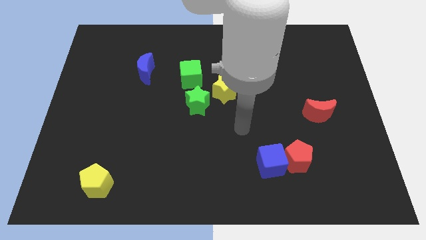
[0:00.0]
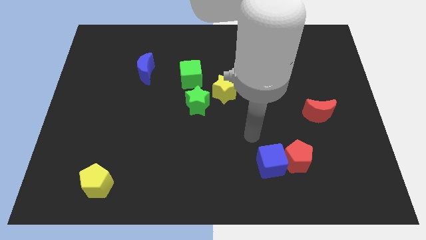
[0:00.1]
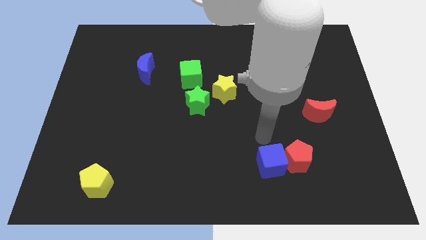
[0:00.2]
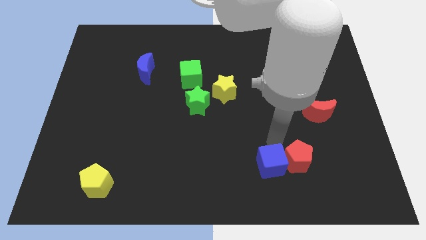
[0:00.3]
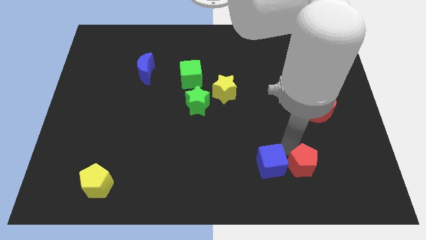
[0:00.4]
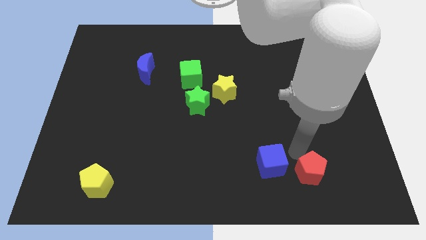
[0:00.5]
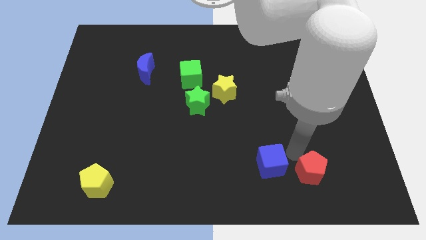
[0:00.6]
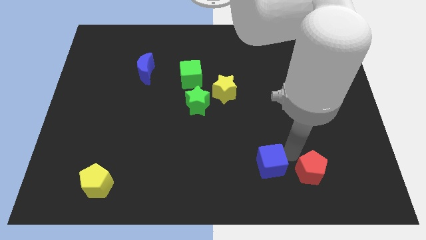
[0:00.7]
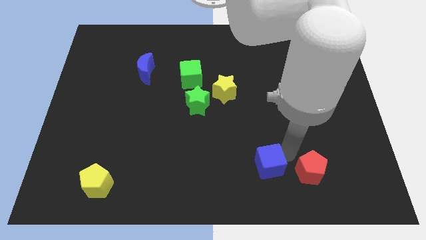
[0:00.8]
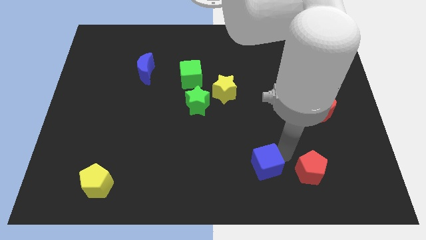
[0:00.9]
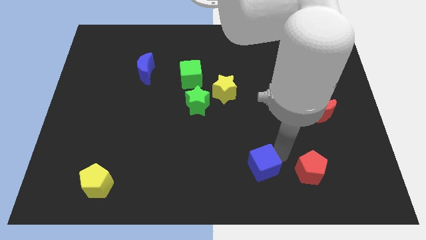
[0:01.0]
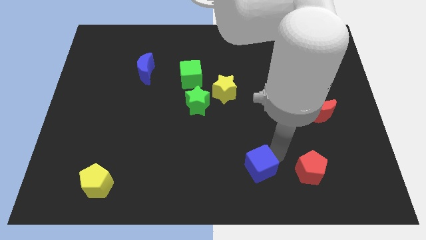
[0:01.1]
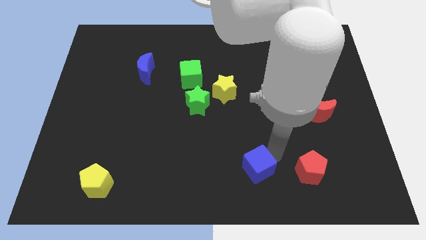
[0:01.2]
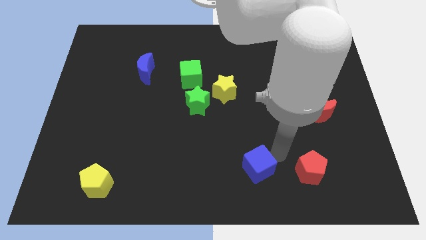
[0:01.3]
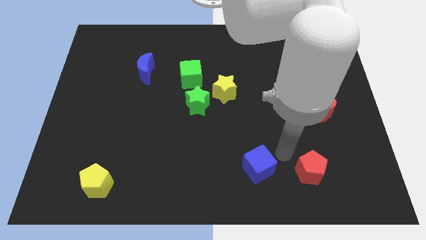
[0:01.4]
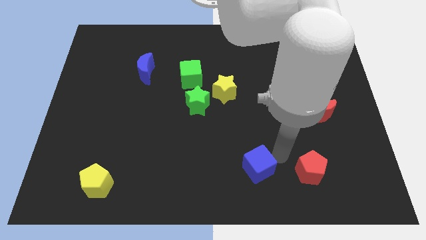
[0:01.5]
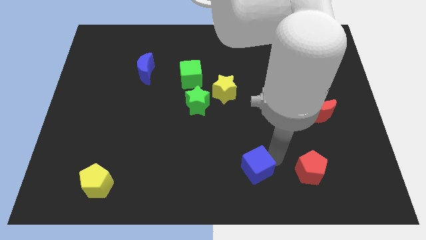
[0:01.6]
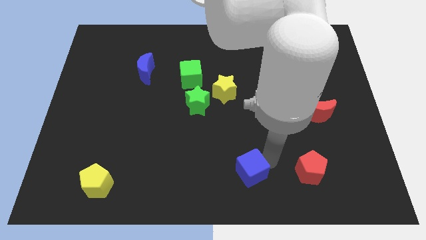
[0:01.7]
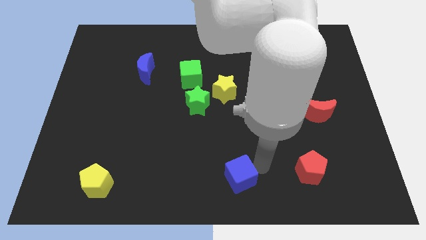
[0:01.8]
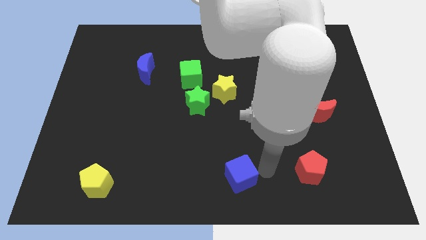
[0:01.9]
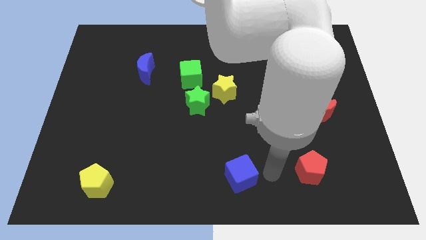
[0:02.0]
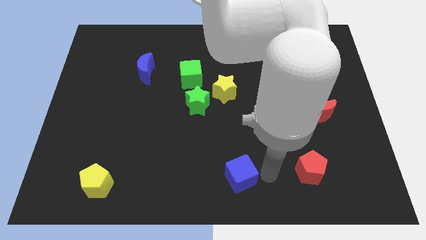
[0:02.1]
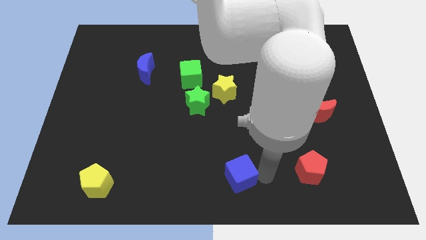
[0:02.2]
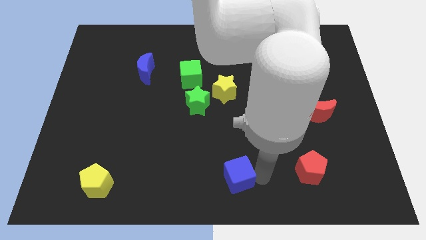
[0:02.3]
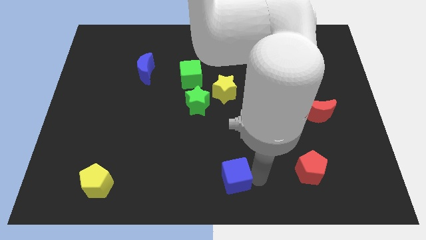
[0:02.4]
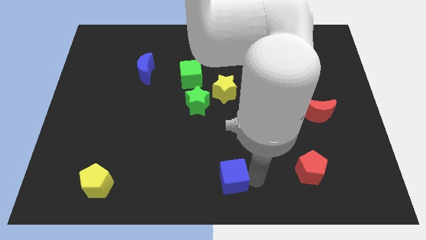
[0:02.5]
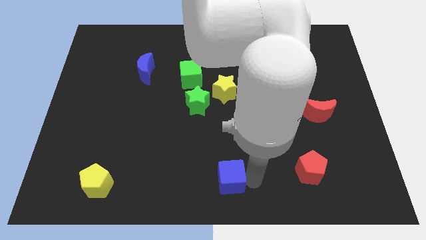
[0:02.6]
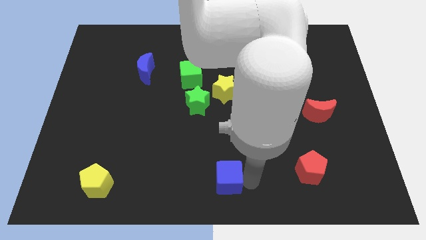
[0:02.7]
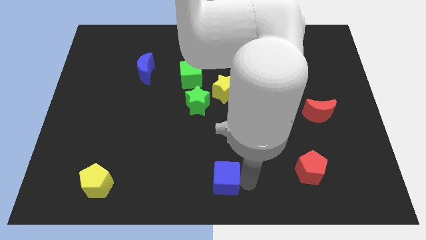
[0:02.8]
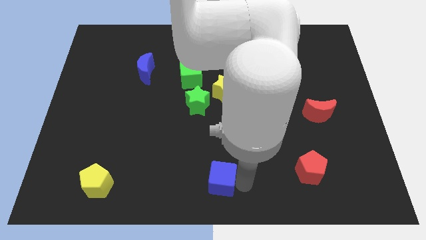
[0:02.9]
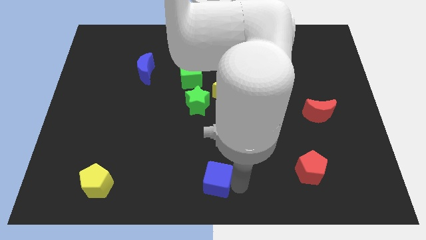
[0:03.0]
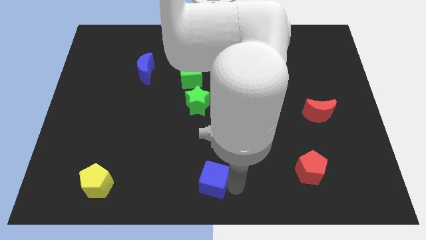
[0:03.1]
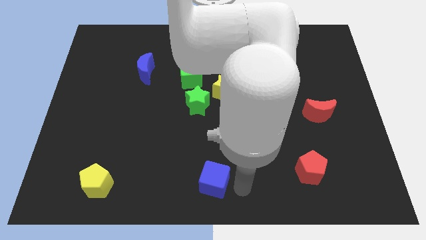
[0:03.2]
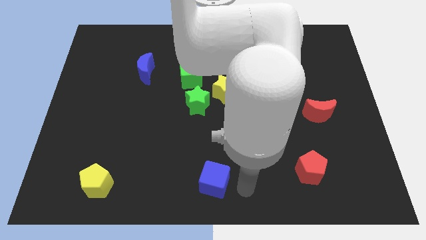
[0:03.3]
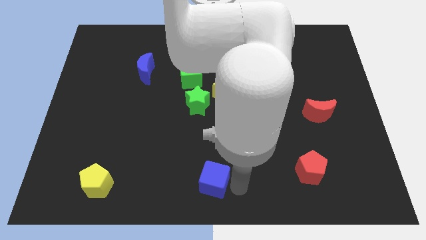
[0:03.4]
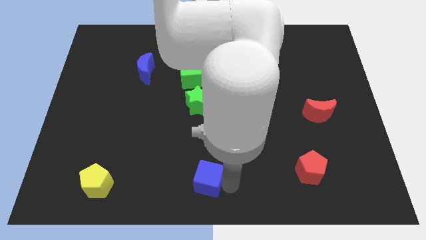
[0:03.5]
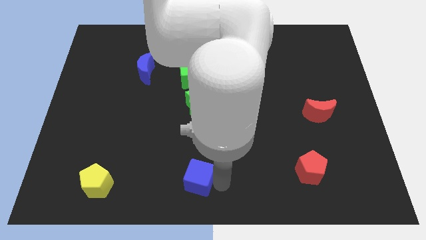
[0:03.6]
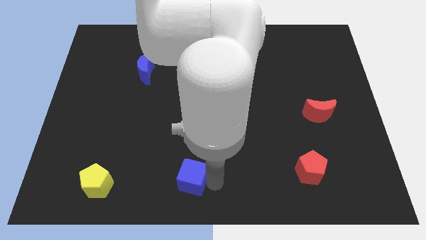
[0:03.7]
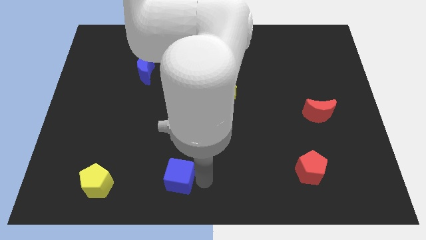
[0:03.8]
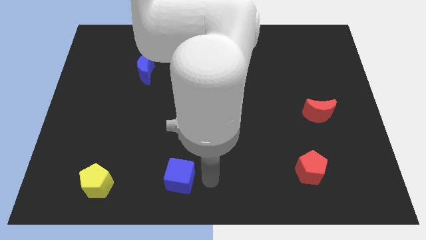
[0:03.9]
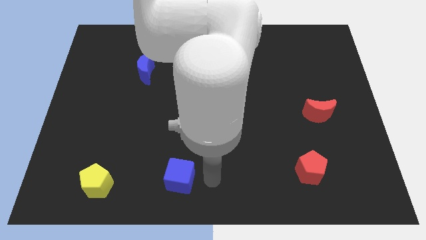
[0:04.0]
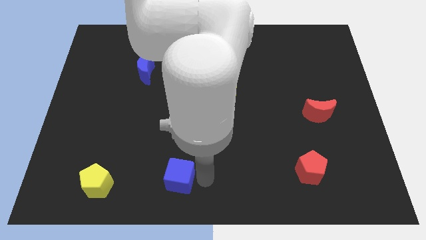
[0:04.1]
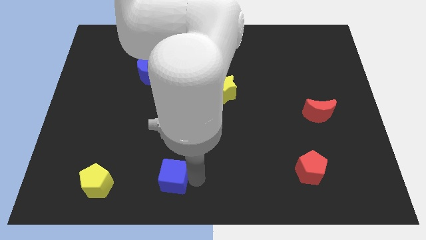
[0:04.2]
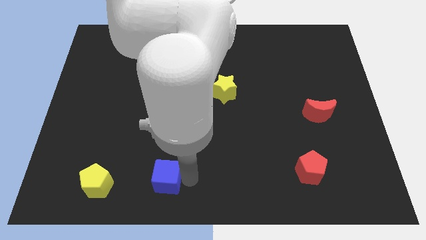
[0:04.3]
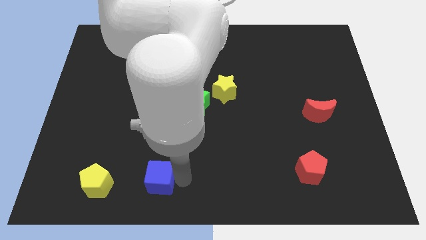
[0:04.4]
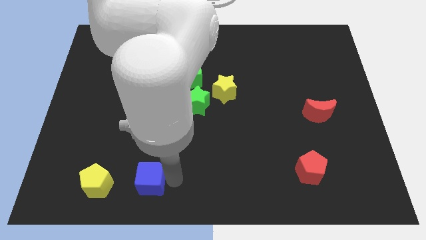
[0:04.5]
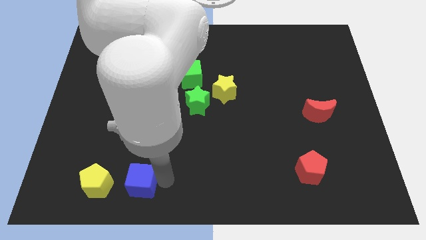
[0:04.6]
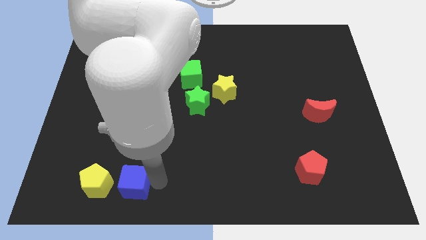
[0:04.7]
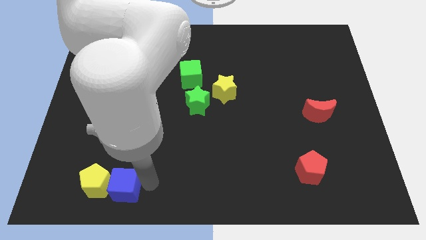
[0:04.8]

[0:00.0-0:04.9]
push the blue cube towards the yellow pentagon

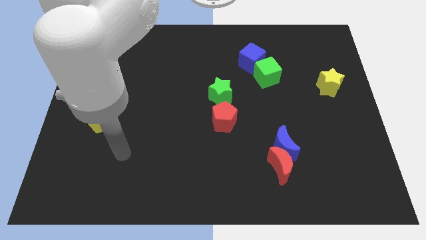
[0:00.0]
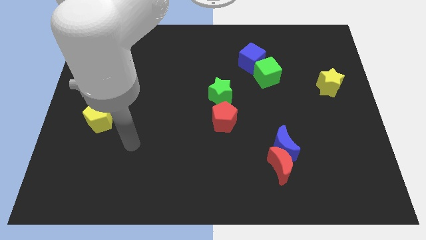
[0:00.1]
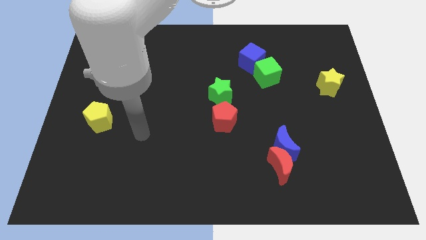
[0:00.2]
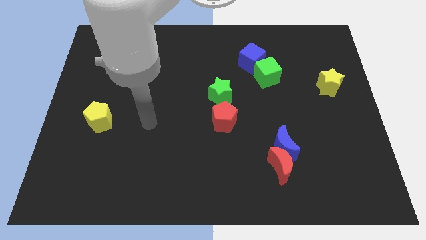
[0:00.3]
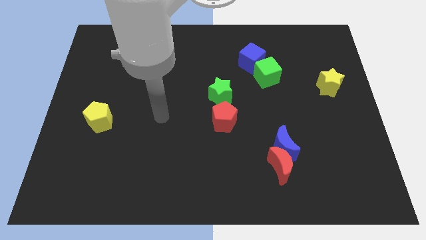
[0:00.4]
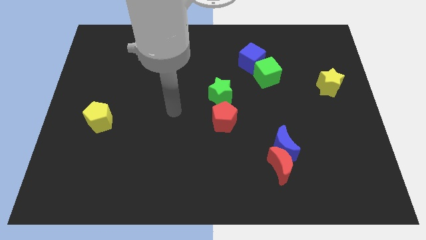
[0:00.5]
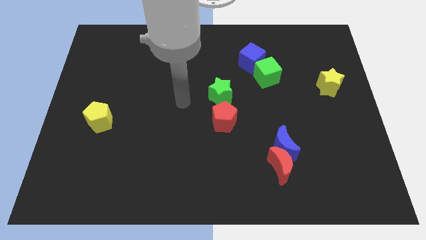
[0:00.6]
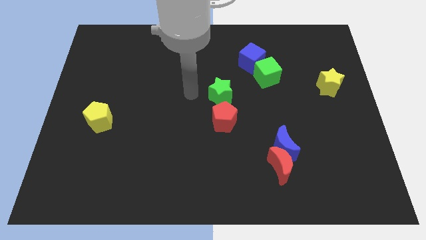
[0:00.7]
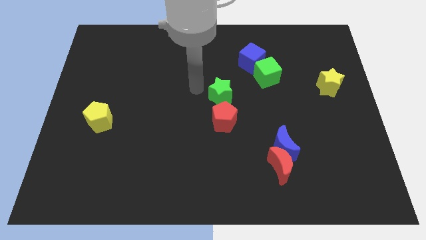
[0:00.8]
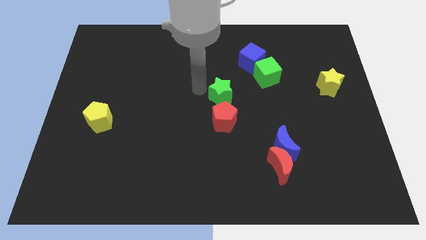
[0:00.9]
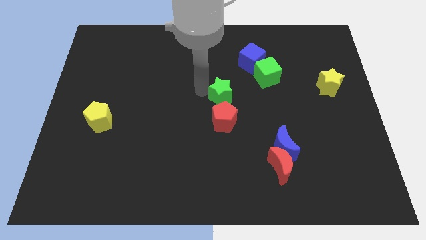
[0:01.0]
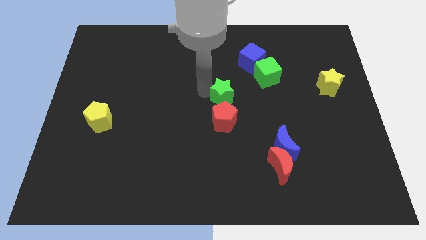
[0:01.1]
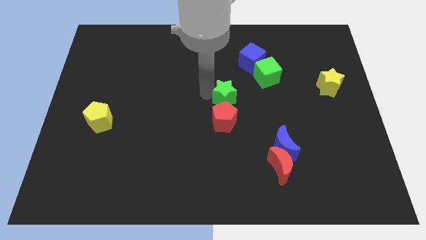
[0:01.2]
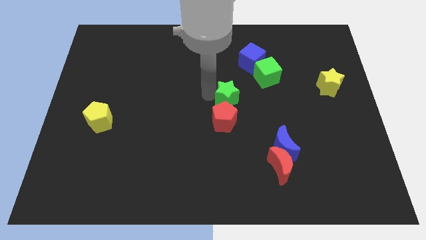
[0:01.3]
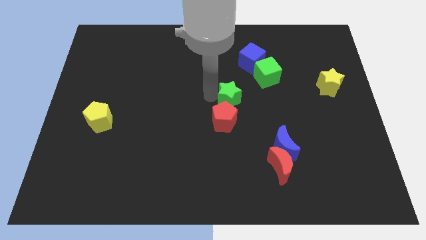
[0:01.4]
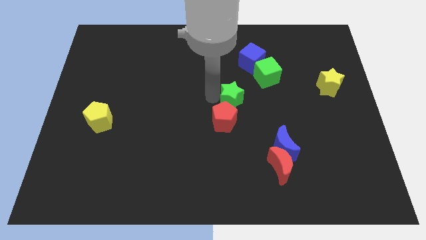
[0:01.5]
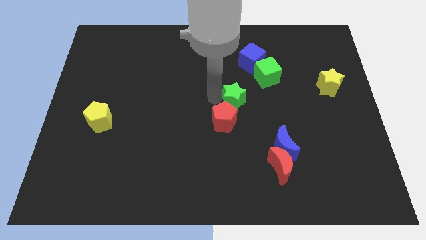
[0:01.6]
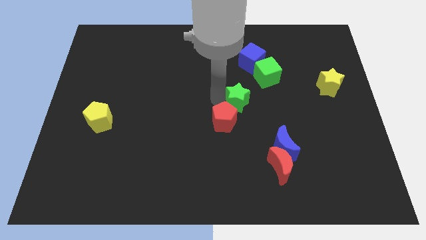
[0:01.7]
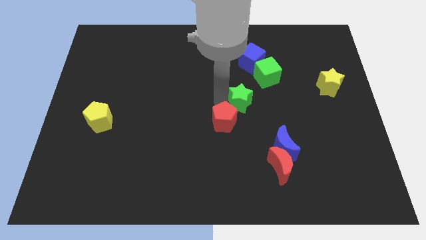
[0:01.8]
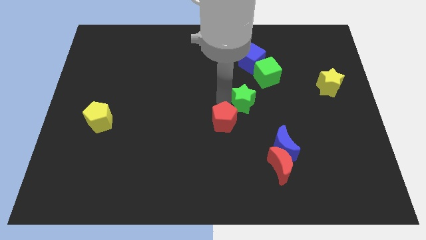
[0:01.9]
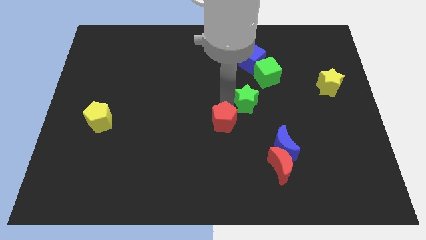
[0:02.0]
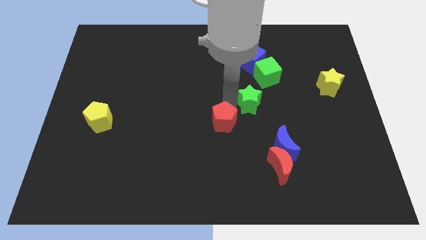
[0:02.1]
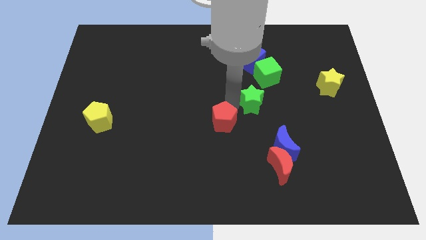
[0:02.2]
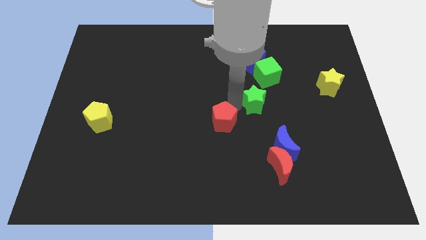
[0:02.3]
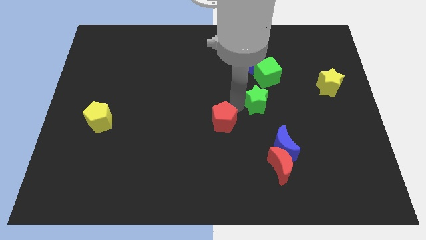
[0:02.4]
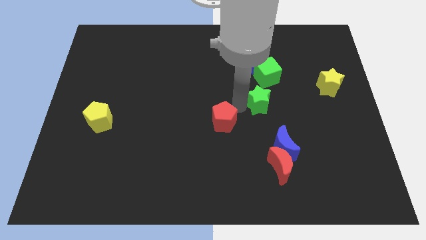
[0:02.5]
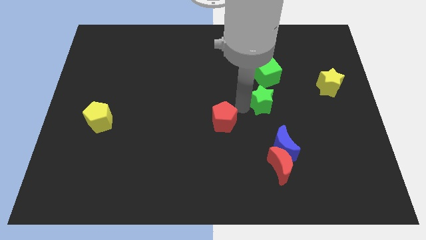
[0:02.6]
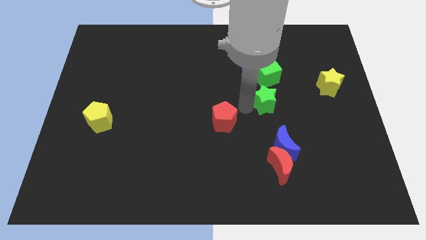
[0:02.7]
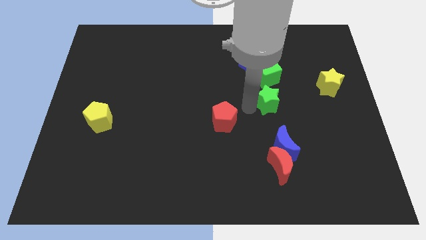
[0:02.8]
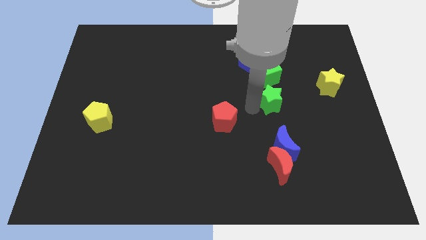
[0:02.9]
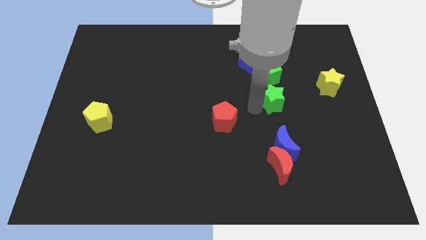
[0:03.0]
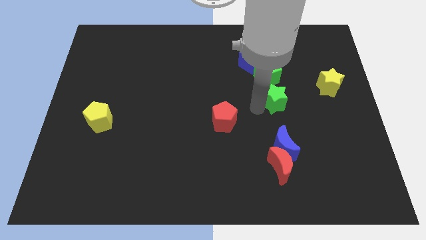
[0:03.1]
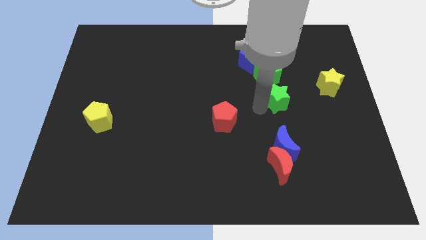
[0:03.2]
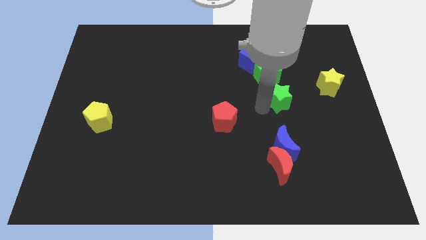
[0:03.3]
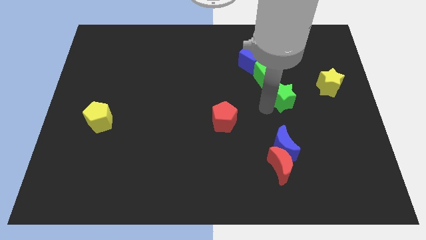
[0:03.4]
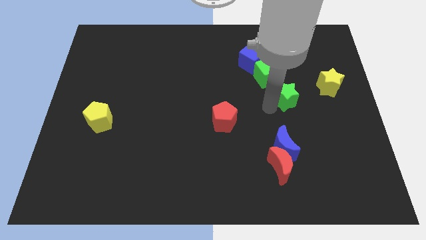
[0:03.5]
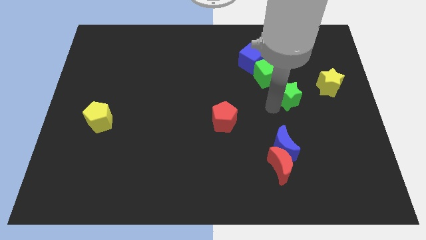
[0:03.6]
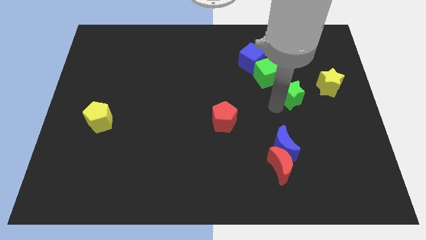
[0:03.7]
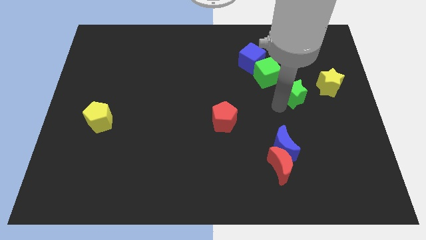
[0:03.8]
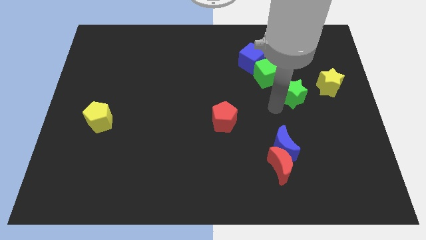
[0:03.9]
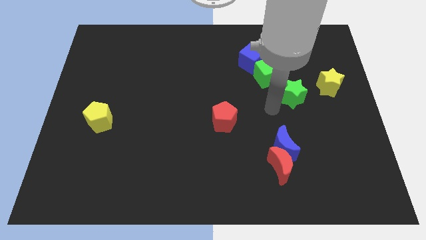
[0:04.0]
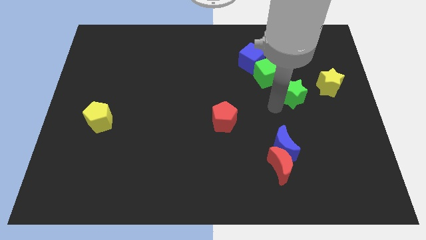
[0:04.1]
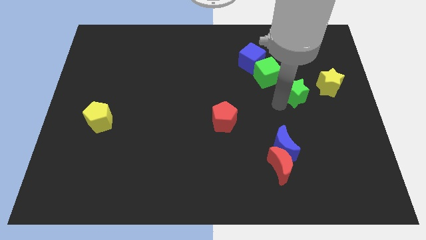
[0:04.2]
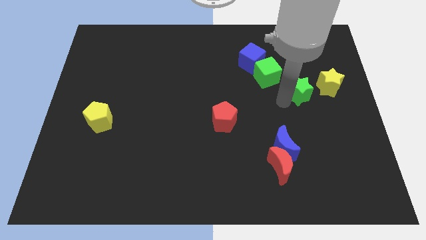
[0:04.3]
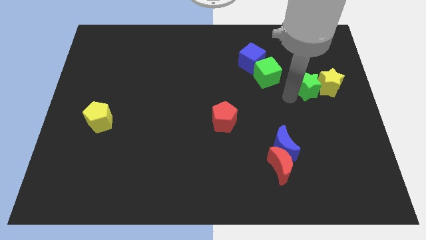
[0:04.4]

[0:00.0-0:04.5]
move the green star close to the yellow star
